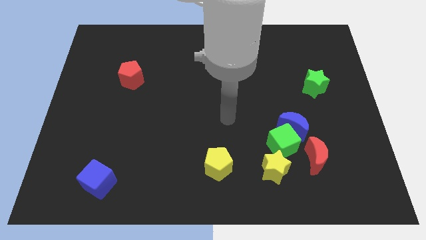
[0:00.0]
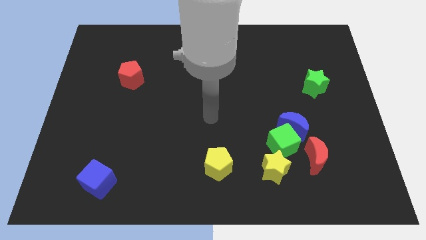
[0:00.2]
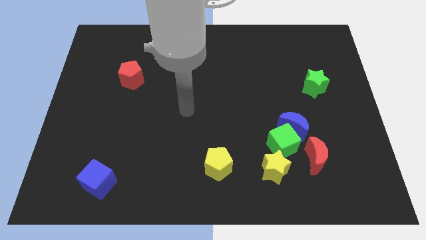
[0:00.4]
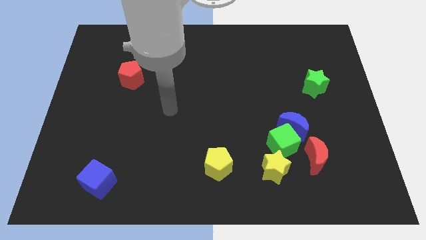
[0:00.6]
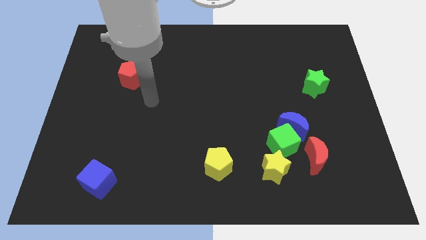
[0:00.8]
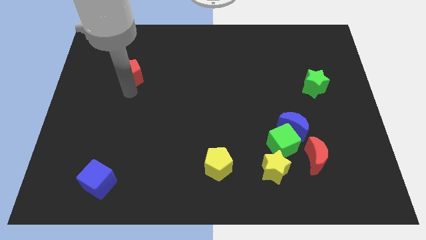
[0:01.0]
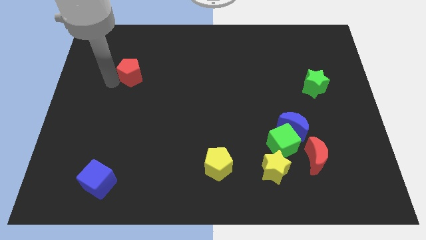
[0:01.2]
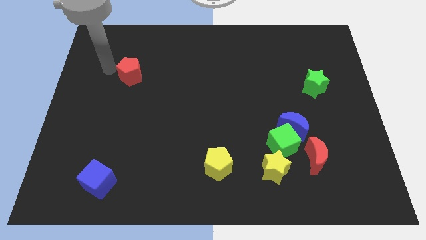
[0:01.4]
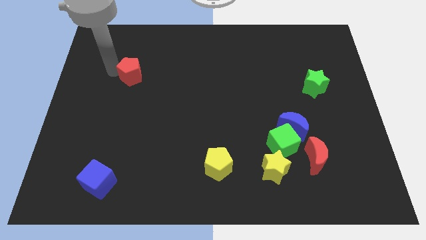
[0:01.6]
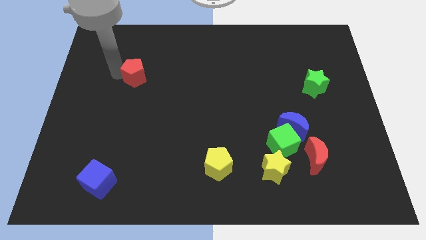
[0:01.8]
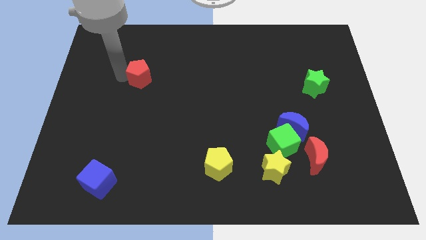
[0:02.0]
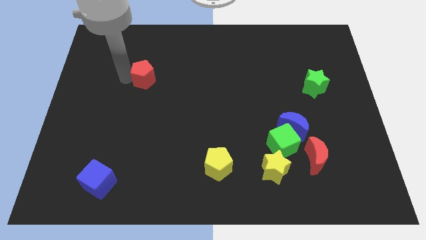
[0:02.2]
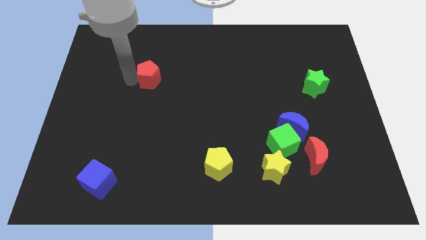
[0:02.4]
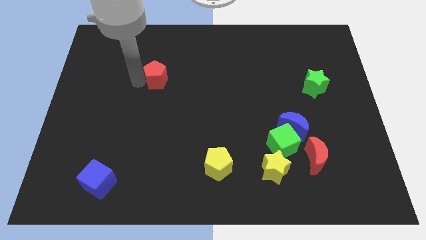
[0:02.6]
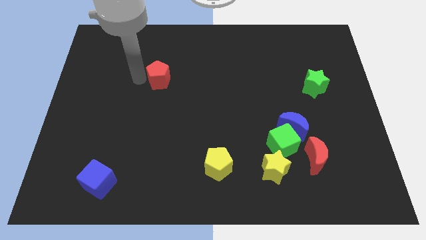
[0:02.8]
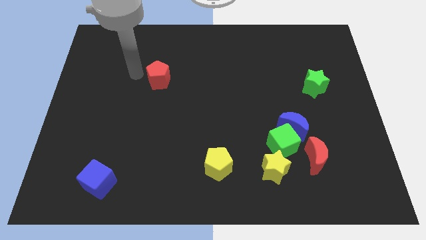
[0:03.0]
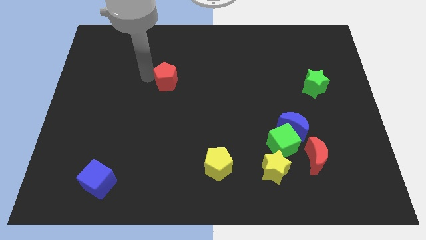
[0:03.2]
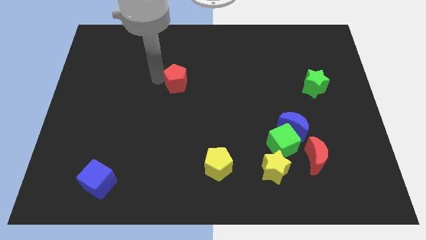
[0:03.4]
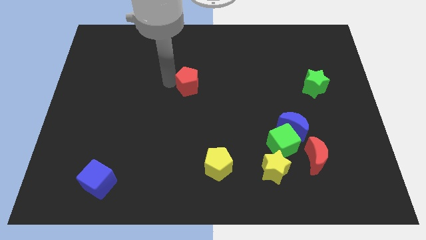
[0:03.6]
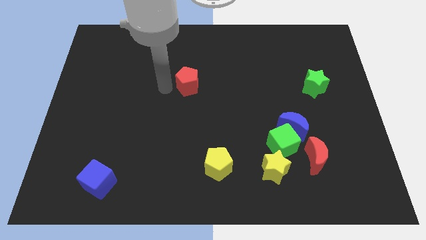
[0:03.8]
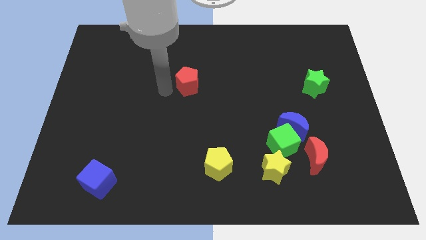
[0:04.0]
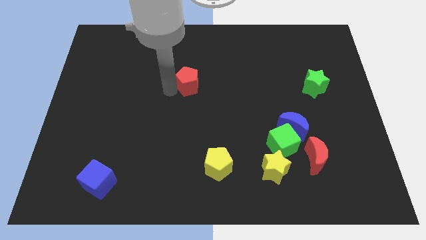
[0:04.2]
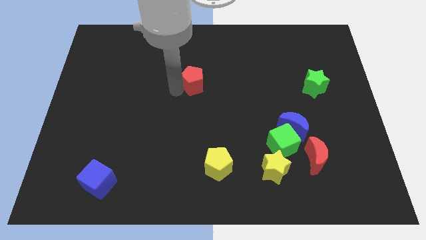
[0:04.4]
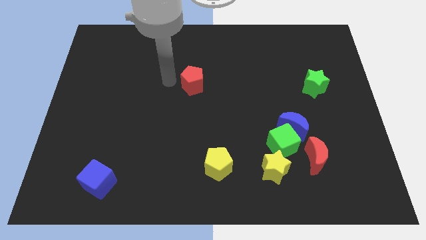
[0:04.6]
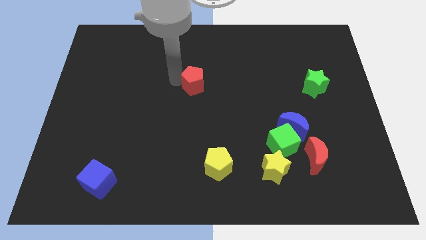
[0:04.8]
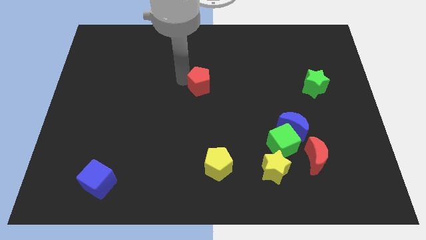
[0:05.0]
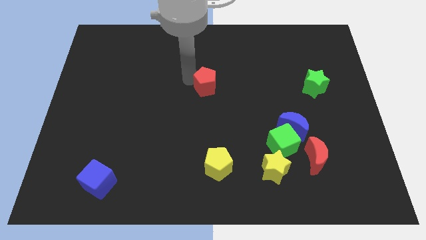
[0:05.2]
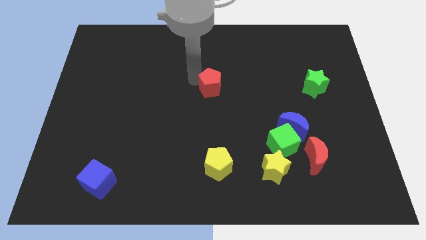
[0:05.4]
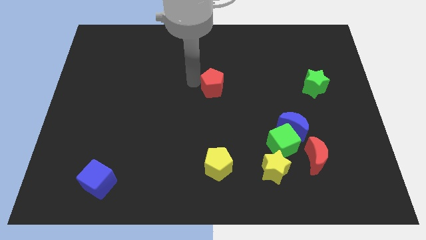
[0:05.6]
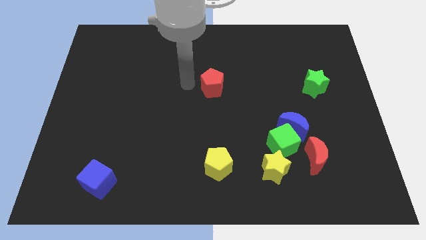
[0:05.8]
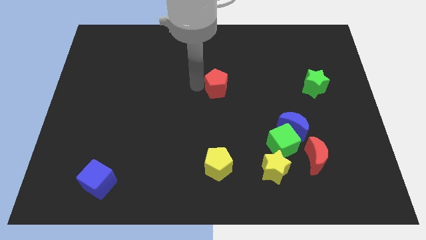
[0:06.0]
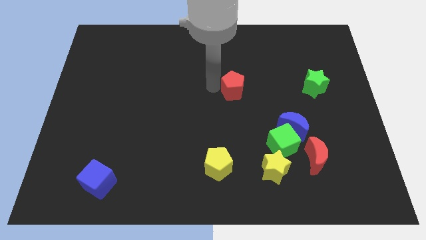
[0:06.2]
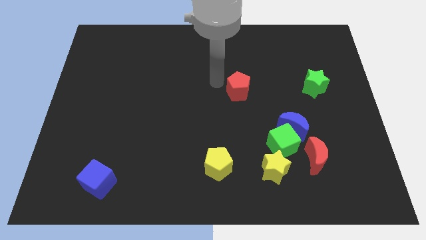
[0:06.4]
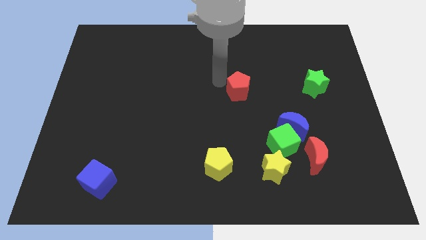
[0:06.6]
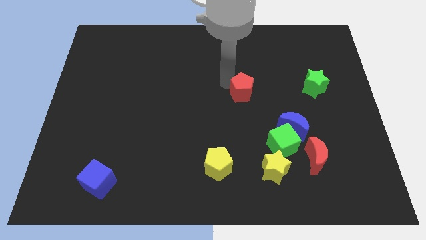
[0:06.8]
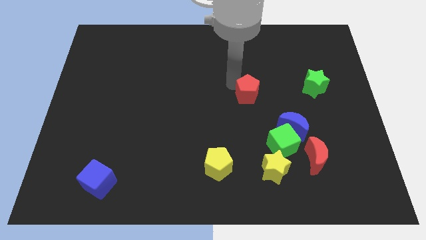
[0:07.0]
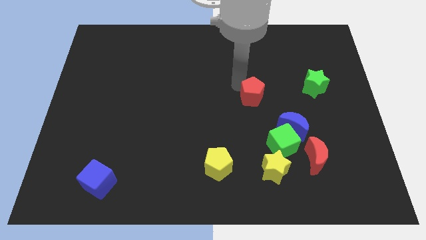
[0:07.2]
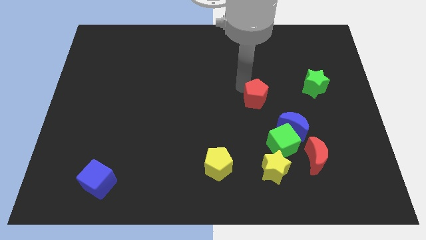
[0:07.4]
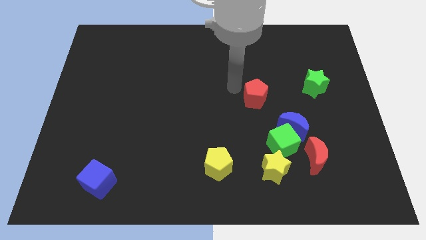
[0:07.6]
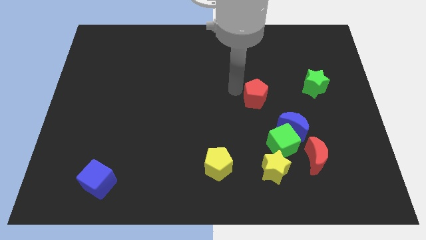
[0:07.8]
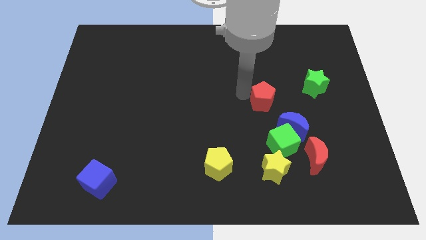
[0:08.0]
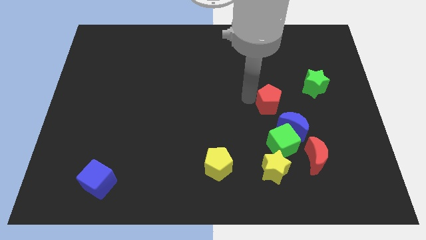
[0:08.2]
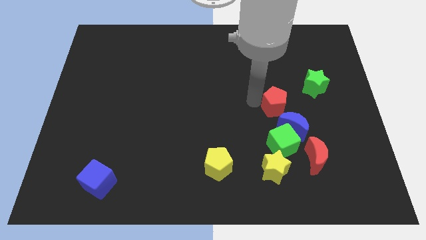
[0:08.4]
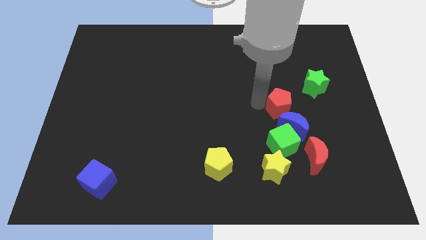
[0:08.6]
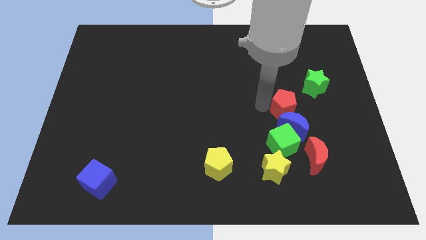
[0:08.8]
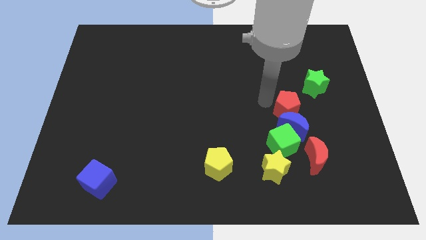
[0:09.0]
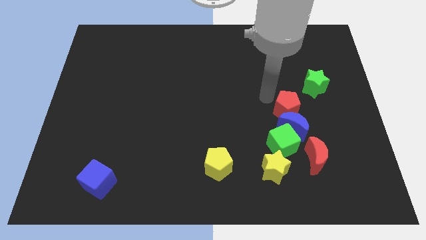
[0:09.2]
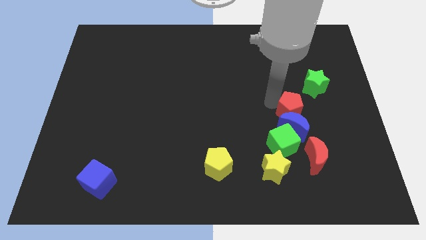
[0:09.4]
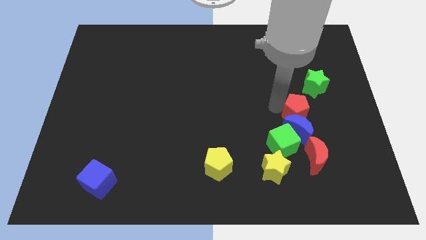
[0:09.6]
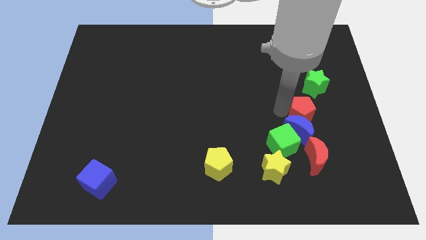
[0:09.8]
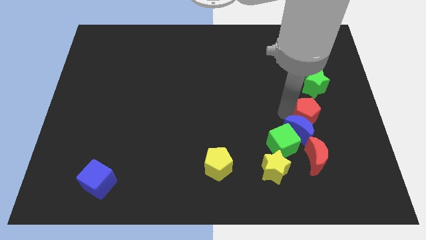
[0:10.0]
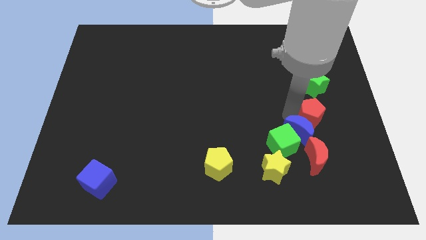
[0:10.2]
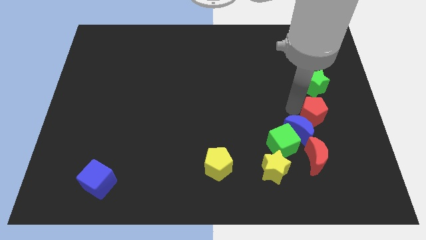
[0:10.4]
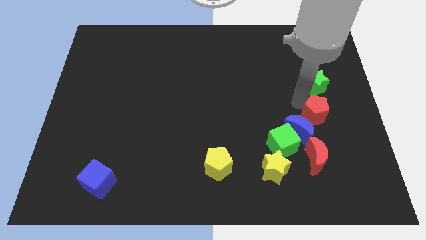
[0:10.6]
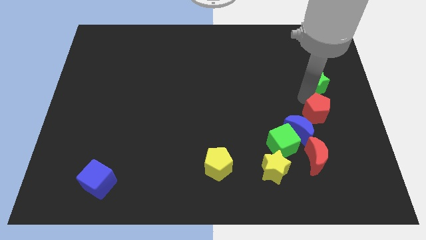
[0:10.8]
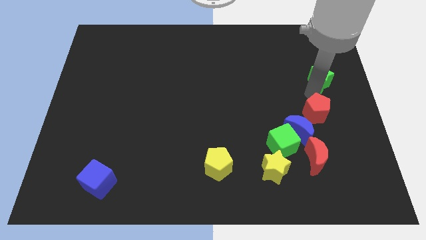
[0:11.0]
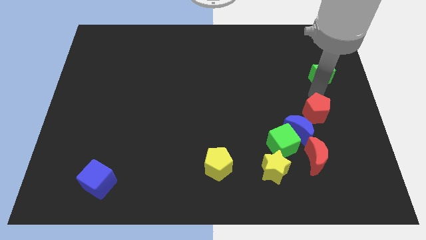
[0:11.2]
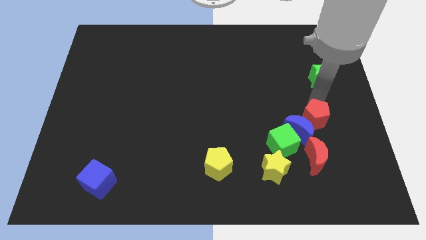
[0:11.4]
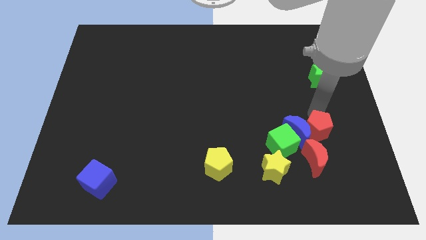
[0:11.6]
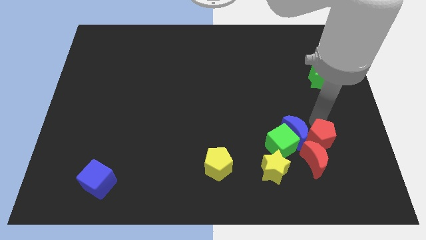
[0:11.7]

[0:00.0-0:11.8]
slide the red pentagon close to the red moon
